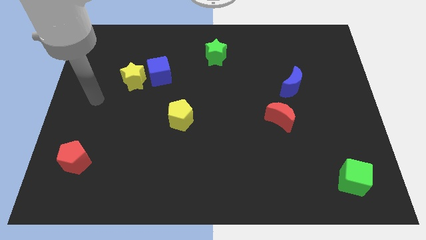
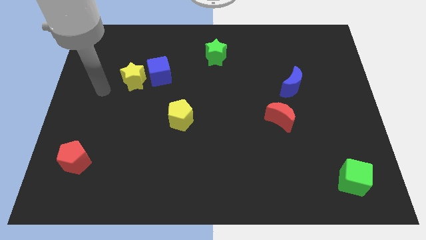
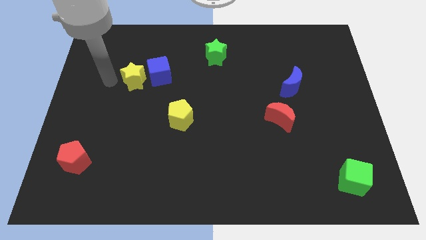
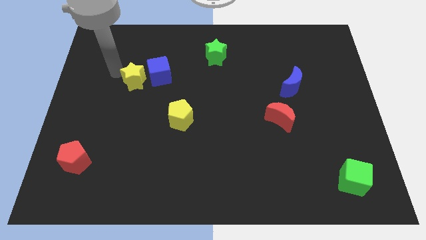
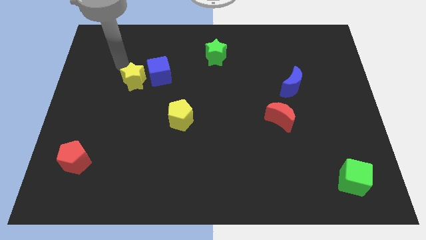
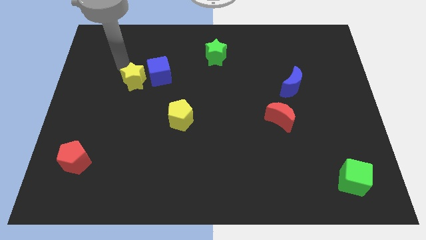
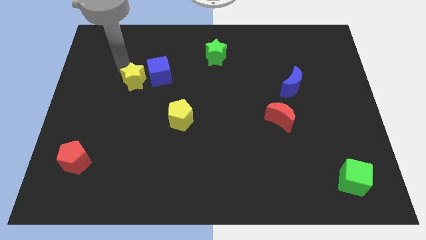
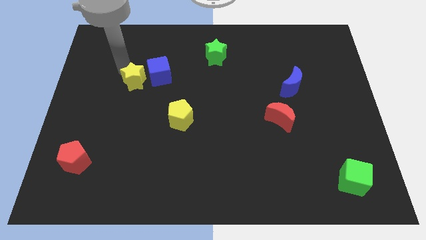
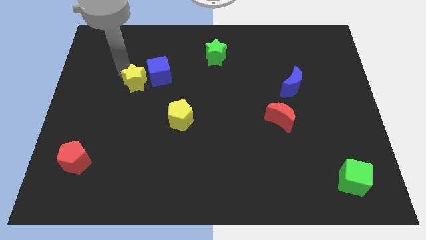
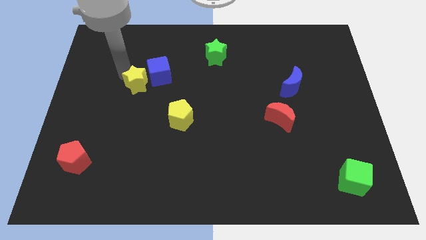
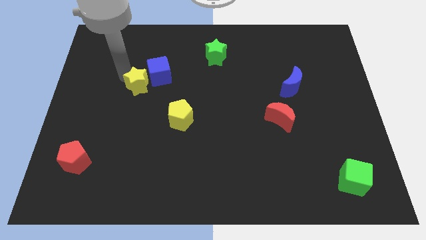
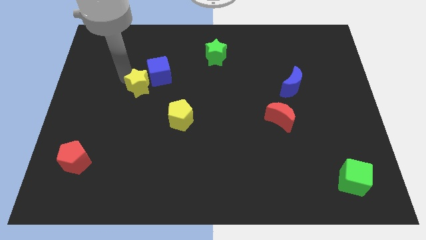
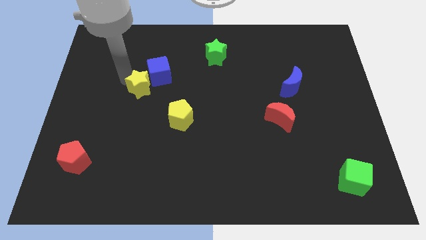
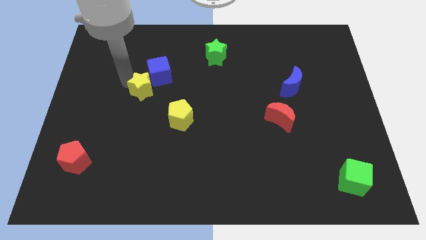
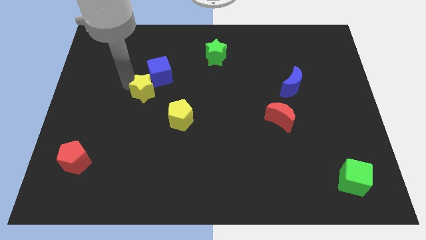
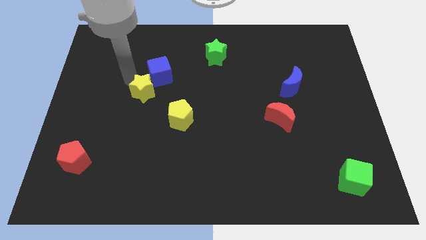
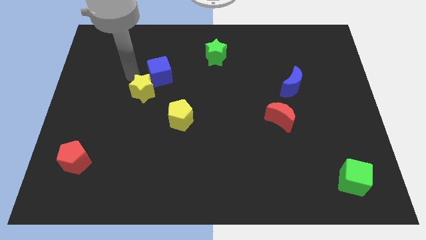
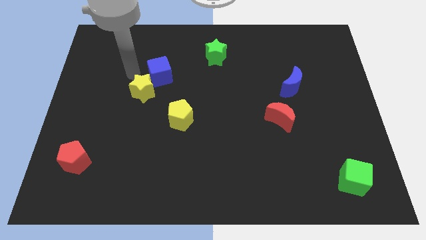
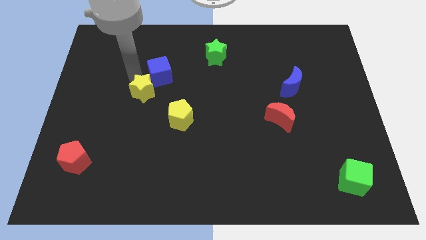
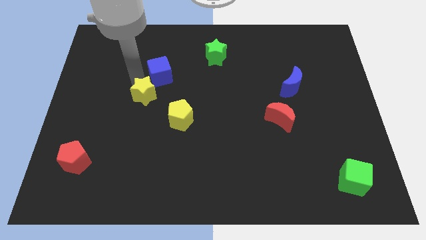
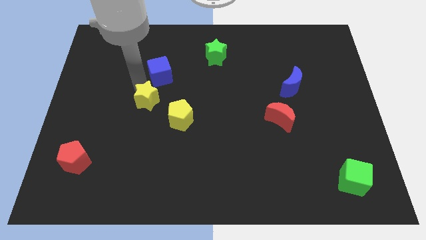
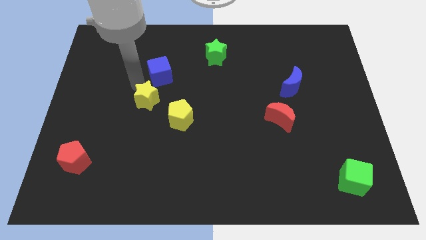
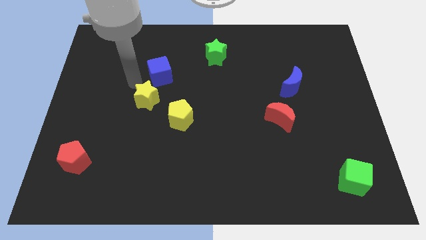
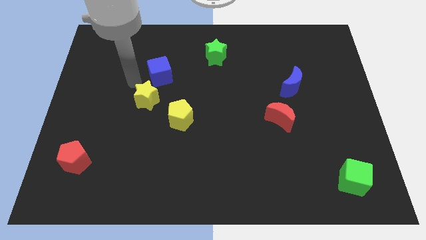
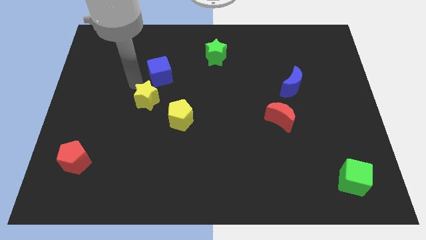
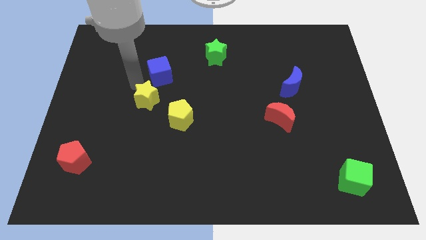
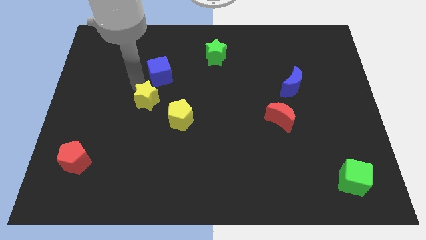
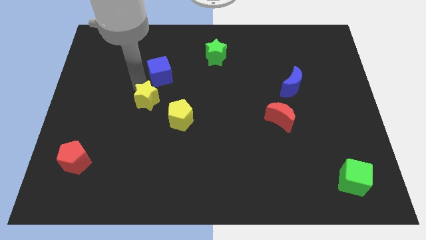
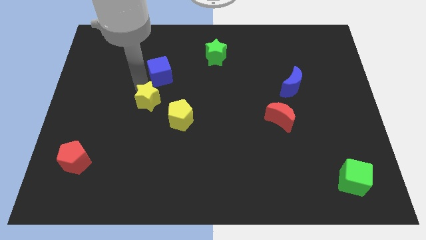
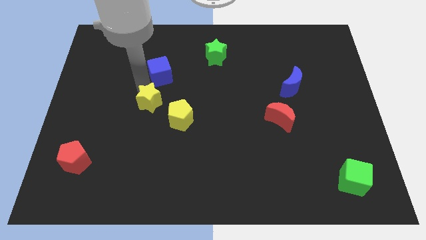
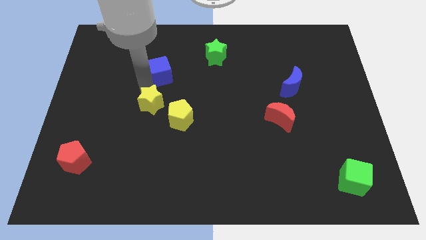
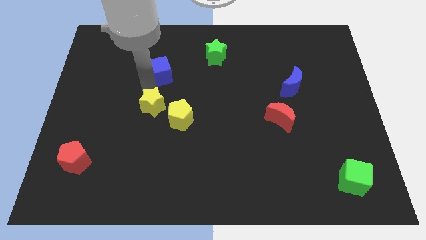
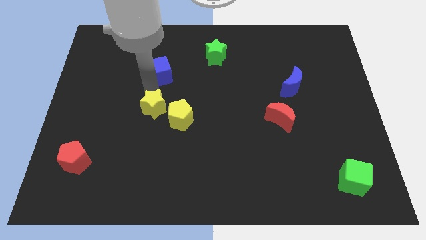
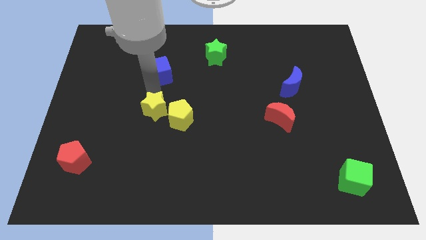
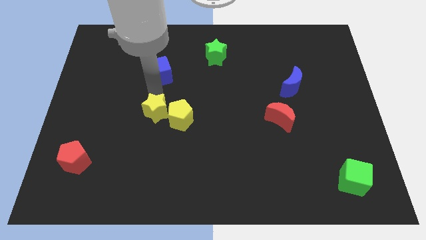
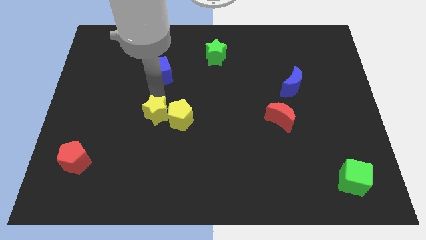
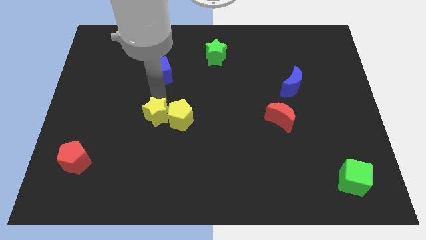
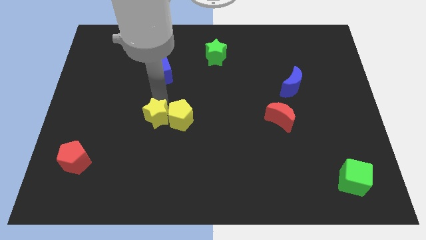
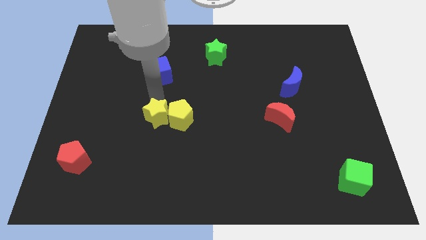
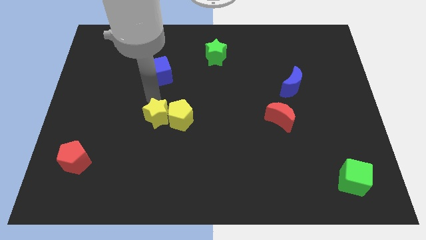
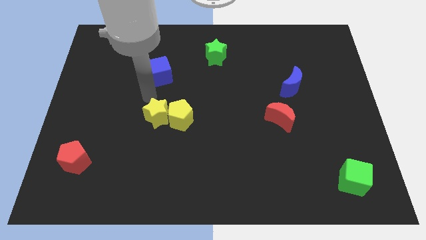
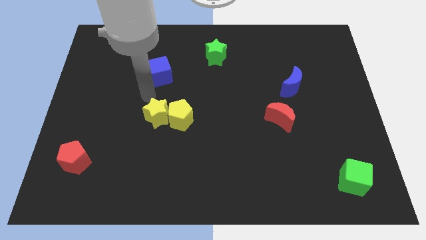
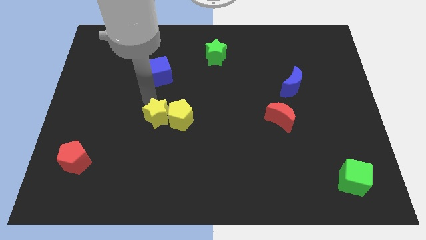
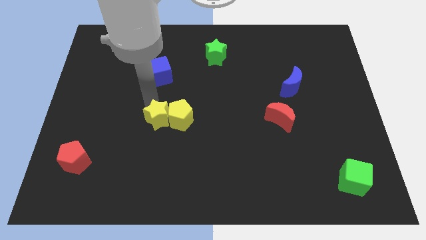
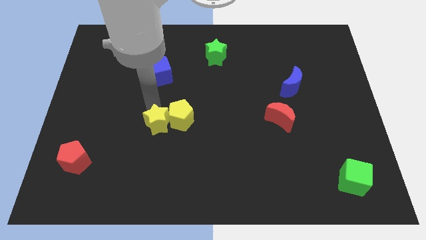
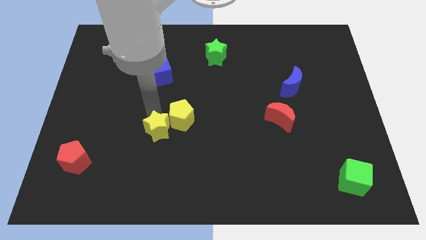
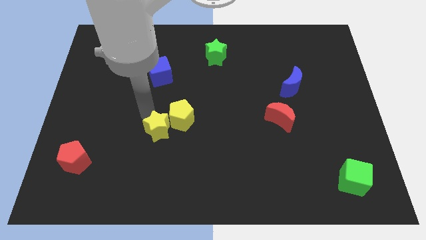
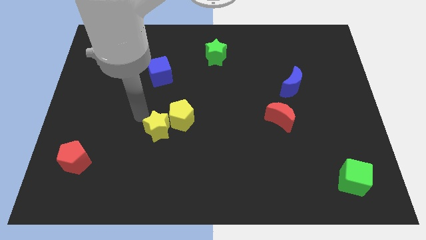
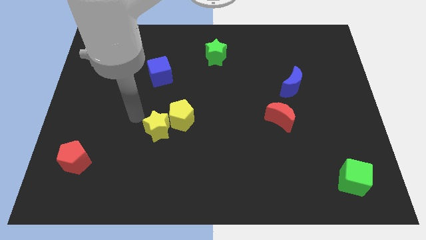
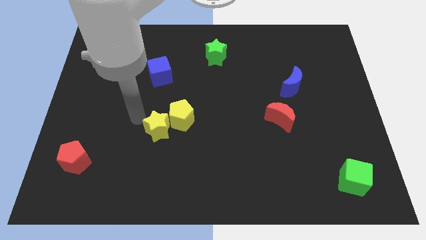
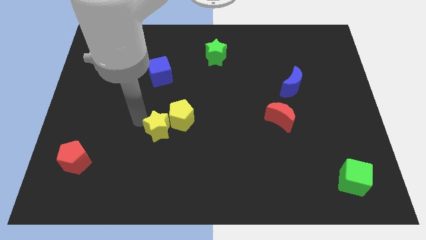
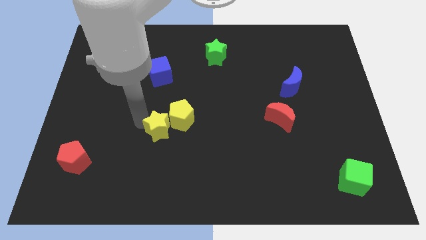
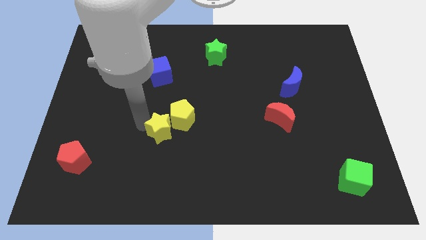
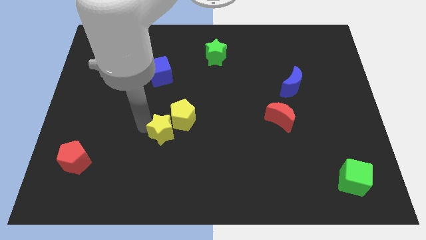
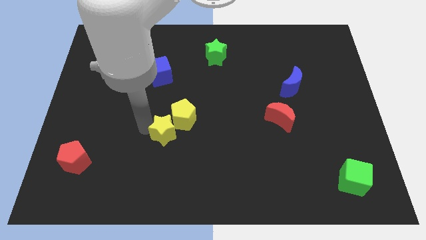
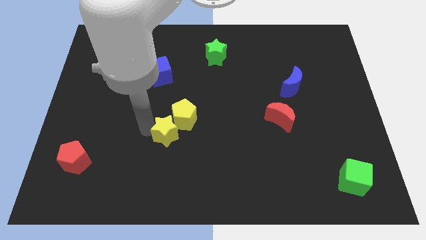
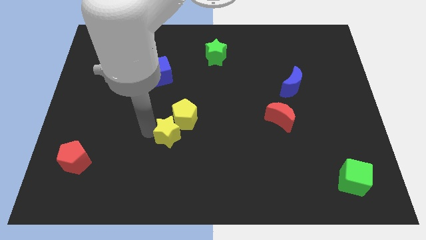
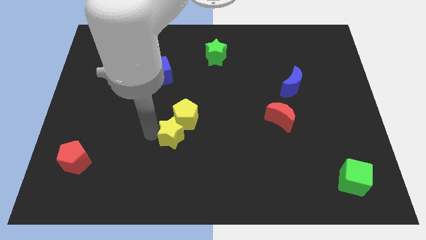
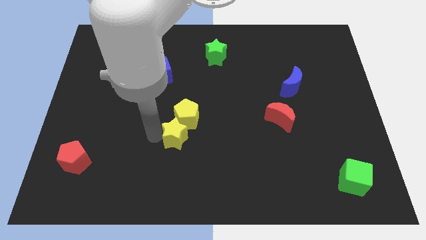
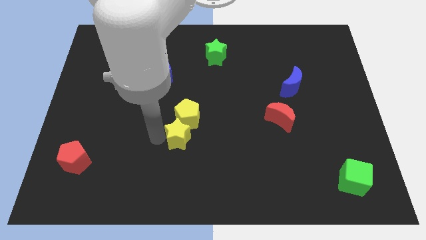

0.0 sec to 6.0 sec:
move the yellow star downwards and to the right

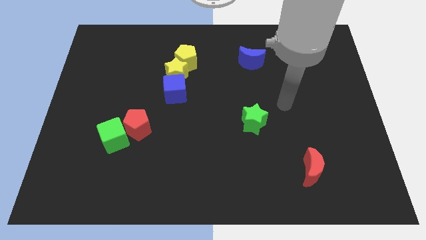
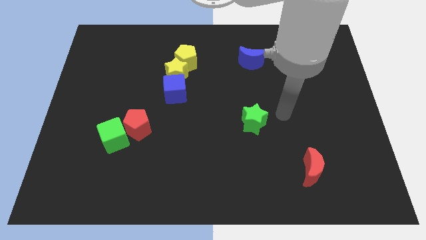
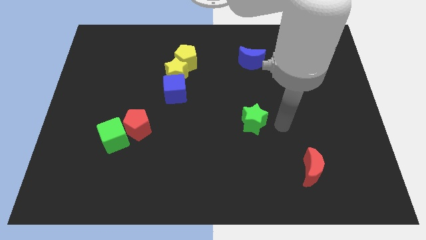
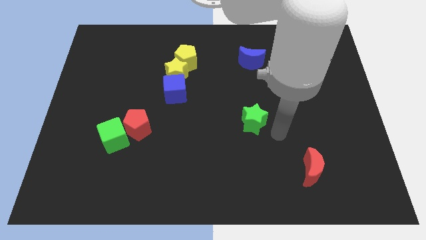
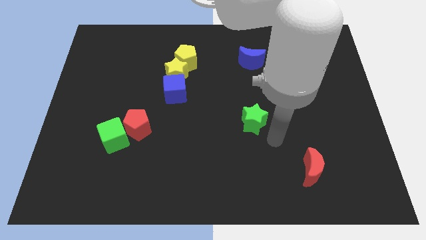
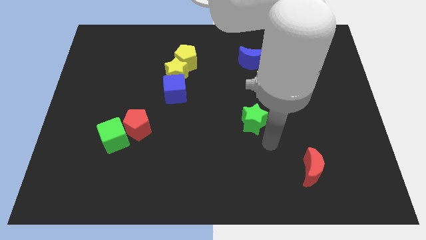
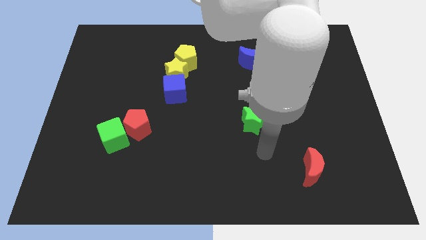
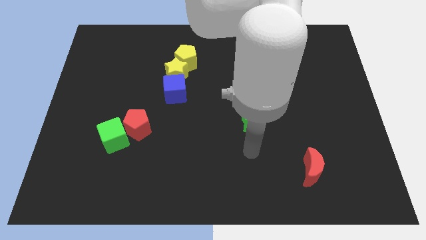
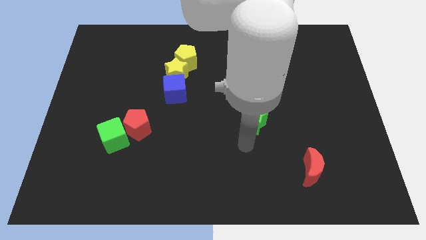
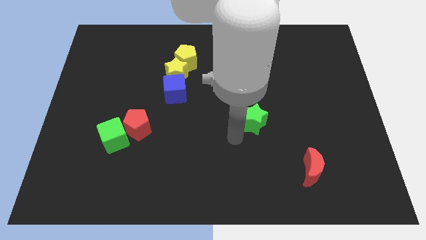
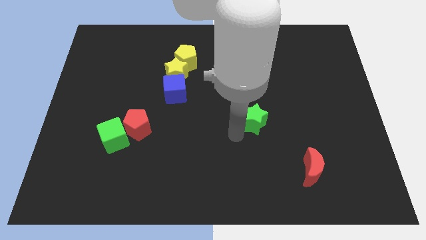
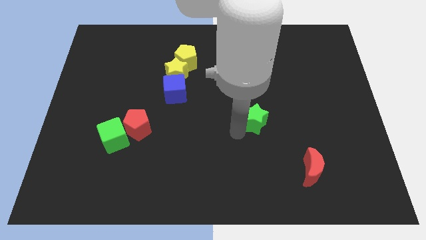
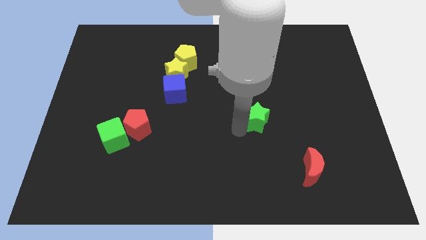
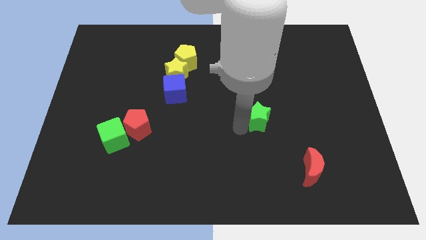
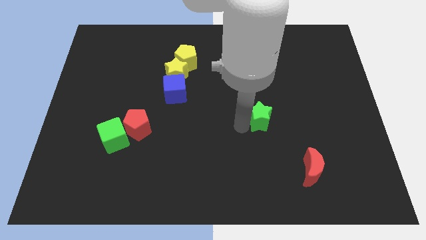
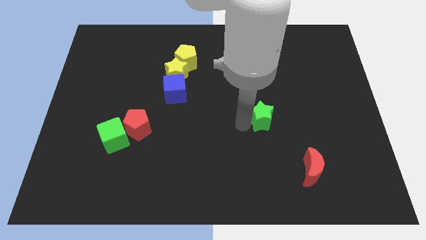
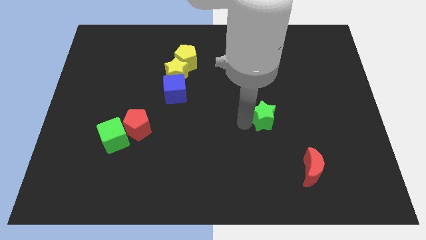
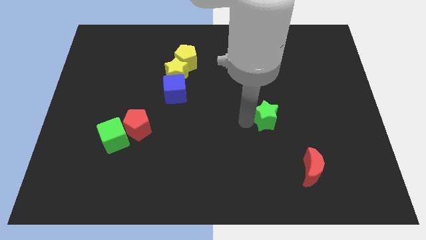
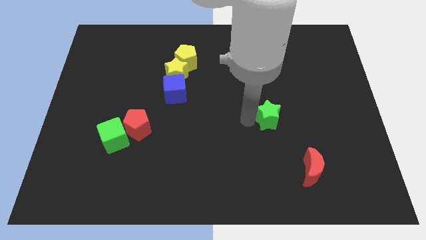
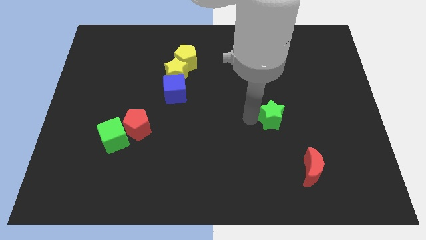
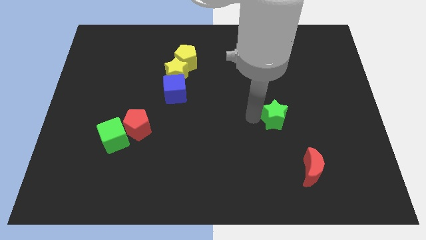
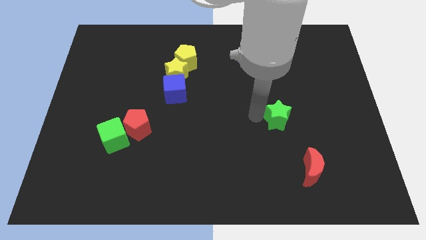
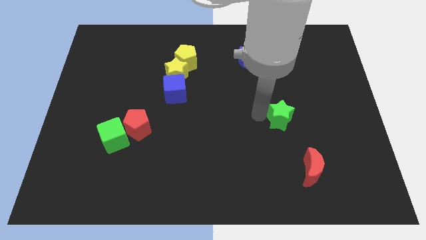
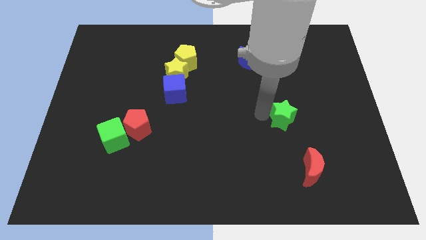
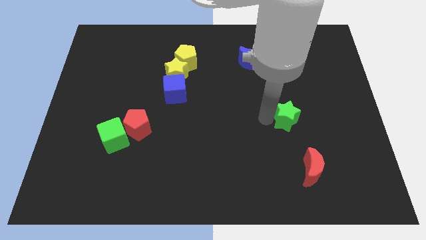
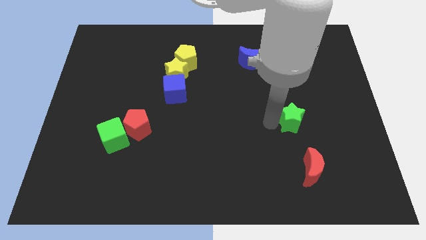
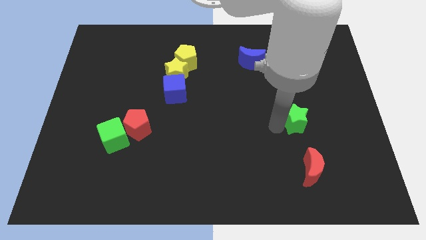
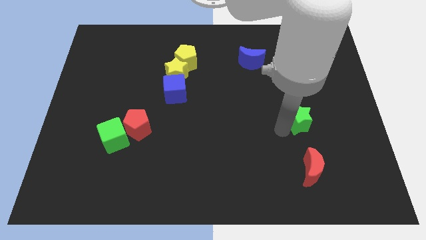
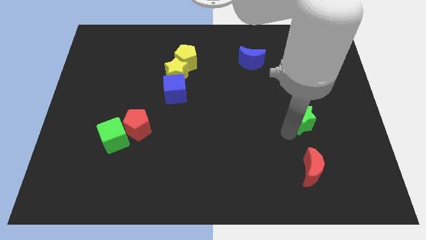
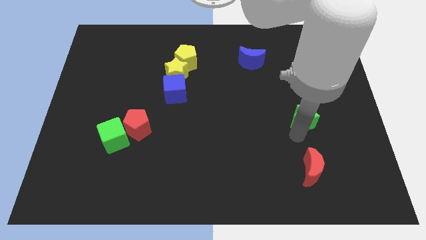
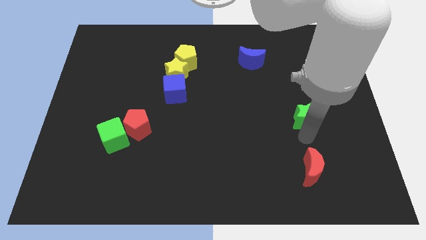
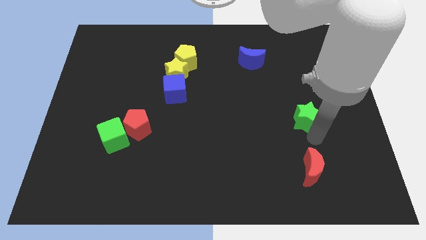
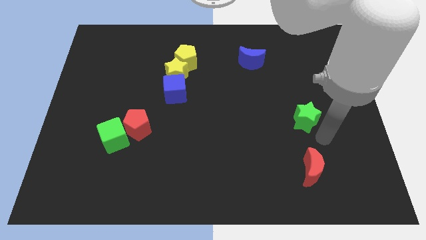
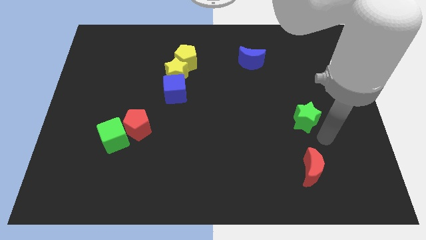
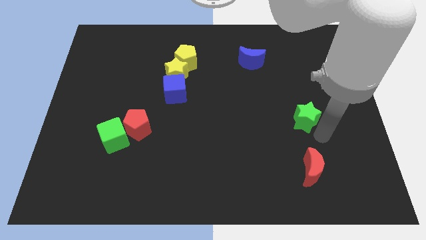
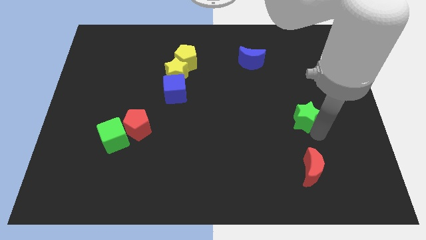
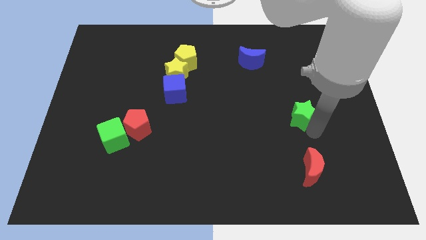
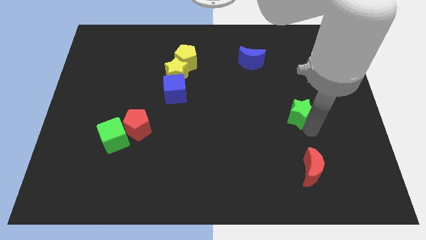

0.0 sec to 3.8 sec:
slide the green star up and to the right diagonally a little bit
